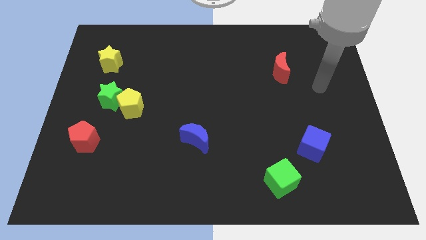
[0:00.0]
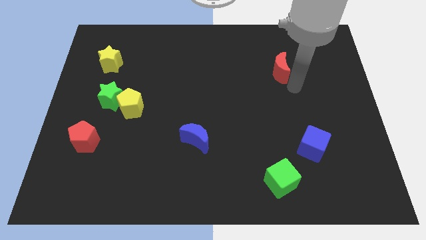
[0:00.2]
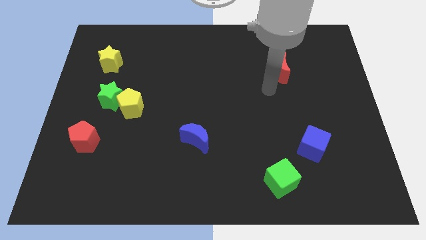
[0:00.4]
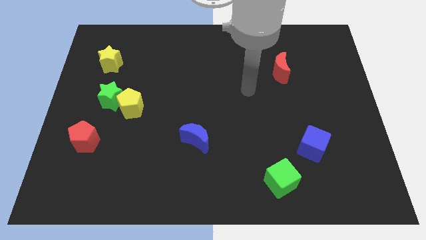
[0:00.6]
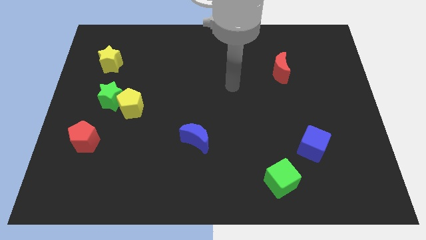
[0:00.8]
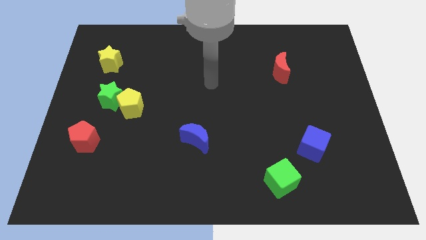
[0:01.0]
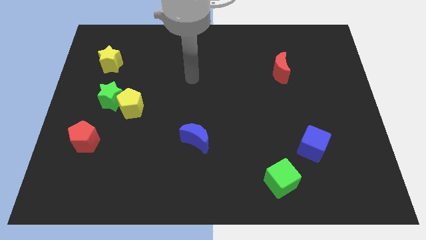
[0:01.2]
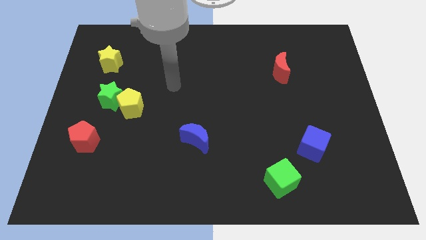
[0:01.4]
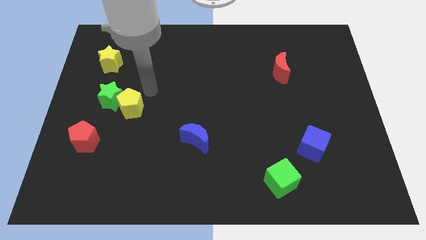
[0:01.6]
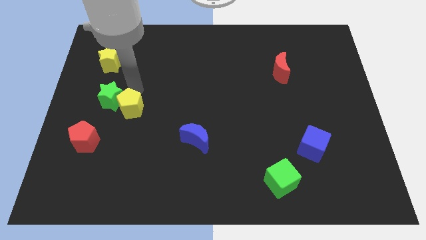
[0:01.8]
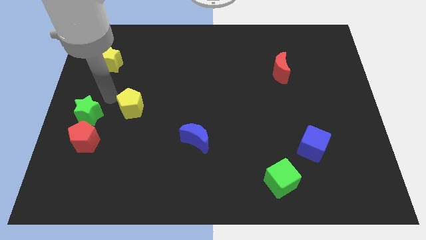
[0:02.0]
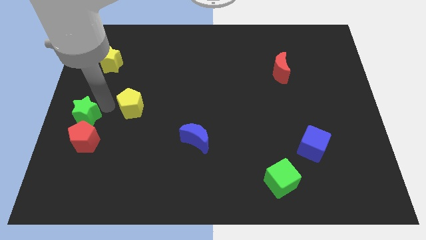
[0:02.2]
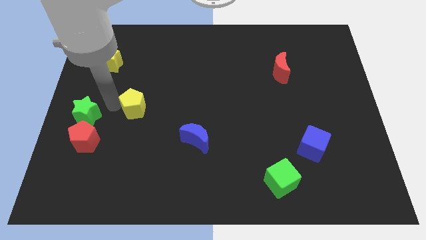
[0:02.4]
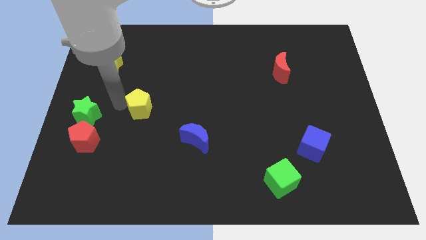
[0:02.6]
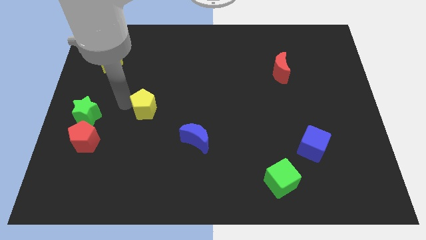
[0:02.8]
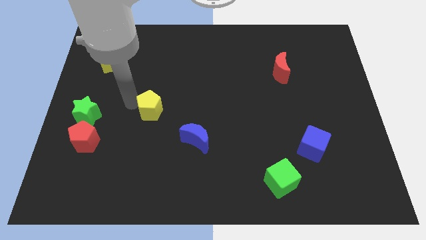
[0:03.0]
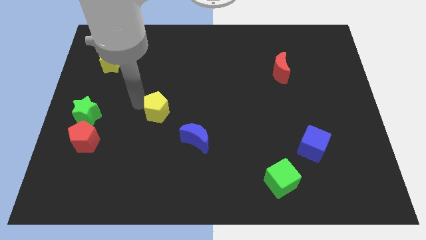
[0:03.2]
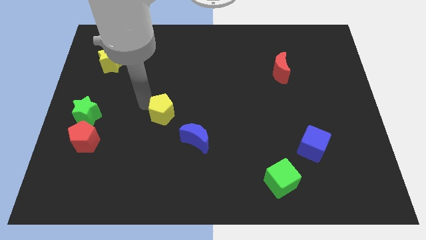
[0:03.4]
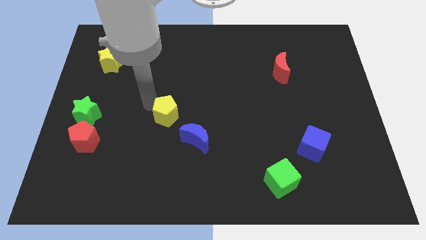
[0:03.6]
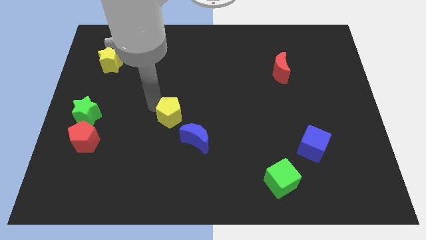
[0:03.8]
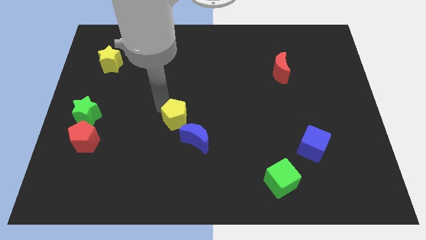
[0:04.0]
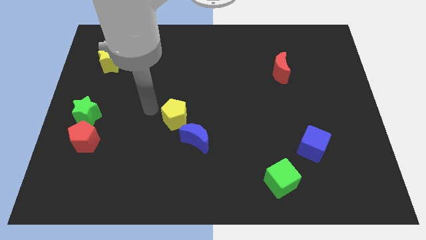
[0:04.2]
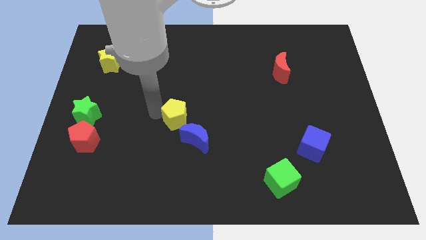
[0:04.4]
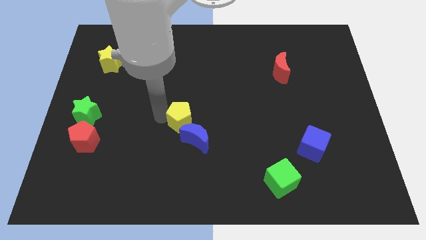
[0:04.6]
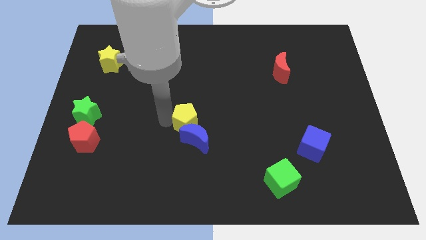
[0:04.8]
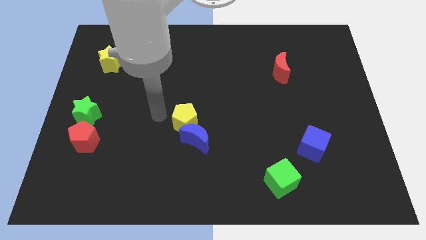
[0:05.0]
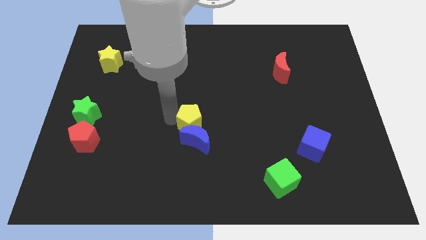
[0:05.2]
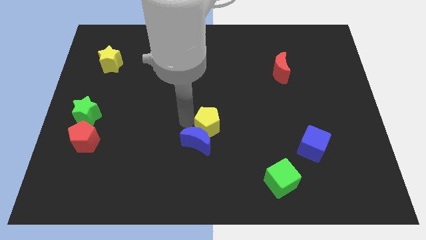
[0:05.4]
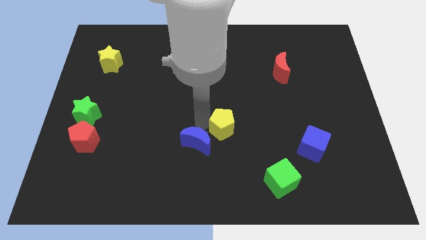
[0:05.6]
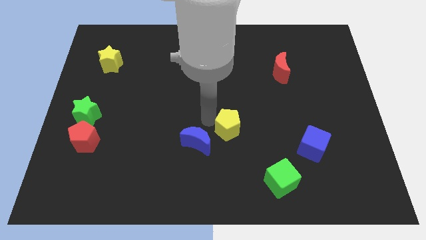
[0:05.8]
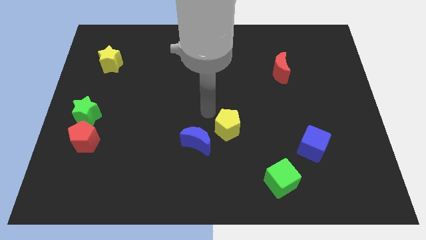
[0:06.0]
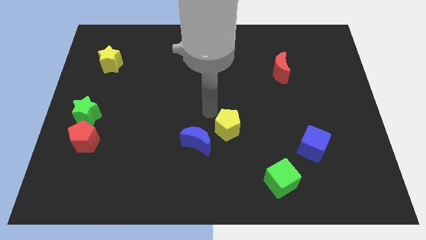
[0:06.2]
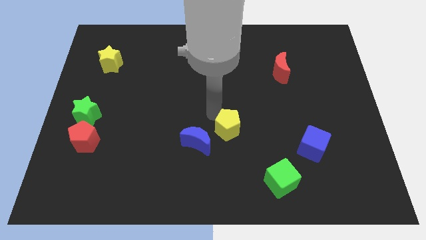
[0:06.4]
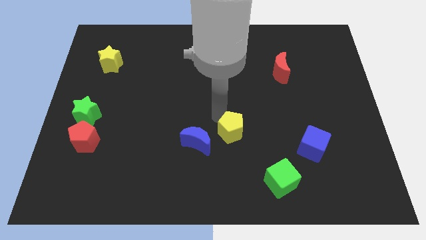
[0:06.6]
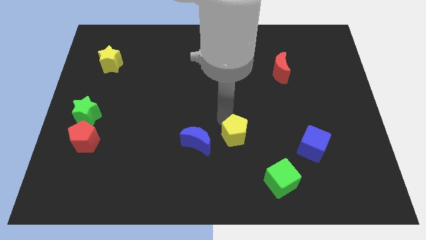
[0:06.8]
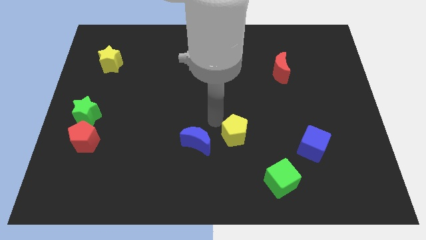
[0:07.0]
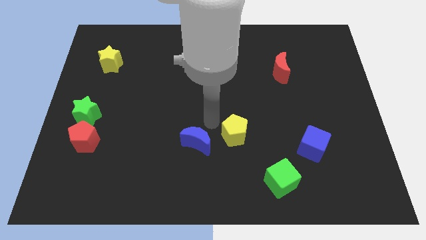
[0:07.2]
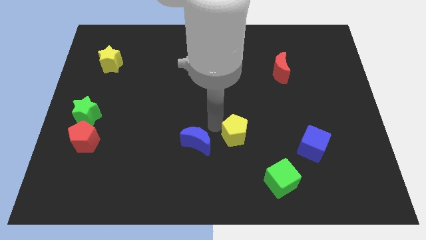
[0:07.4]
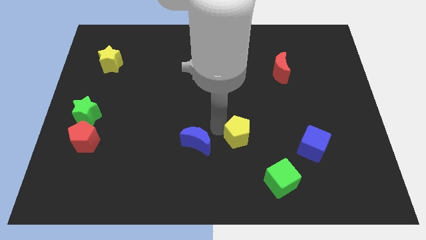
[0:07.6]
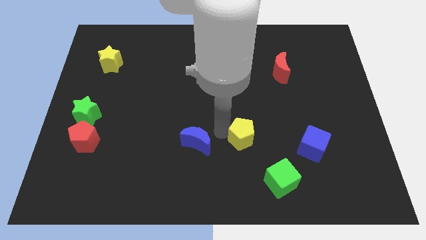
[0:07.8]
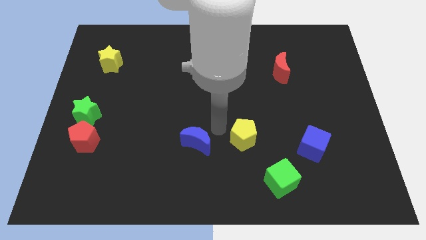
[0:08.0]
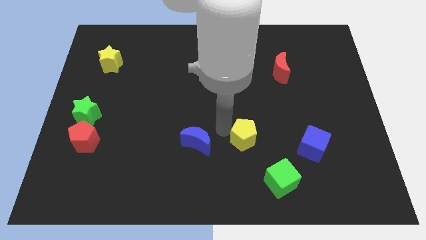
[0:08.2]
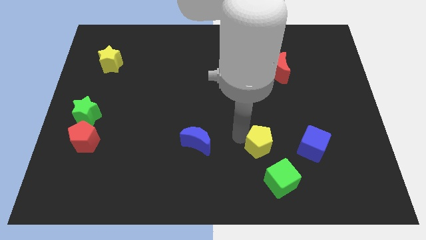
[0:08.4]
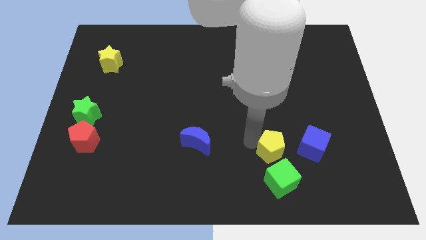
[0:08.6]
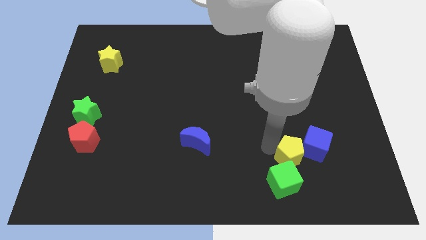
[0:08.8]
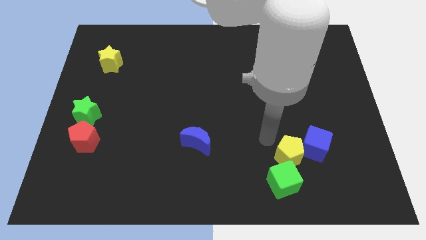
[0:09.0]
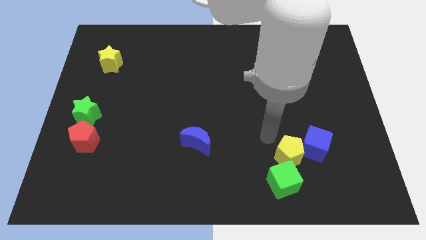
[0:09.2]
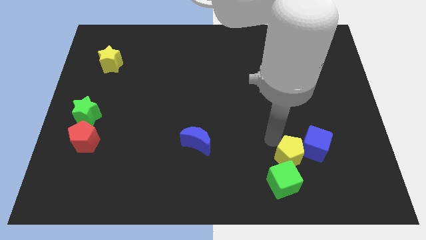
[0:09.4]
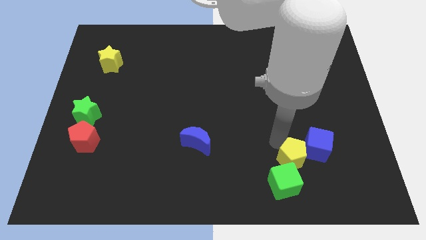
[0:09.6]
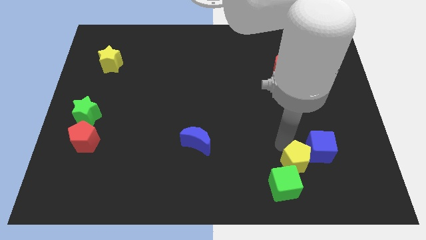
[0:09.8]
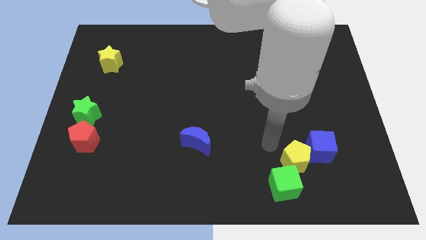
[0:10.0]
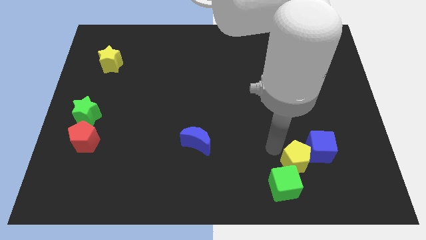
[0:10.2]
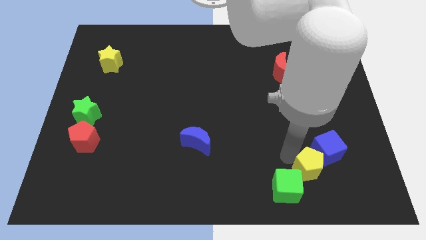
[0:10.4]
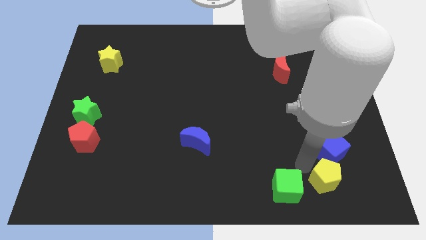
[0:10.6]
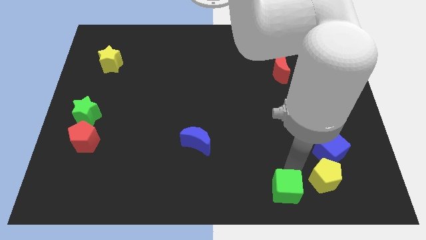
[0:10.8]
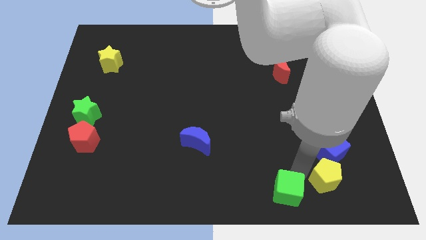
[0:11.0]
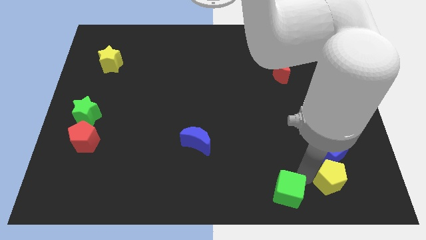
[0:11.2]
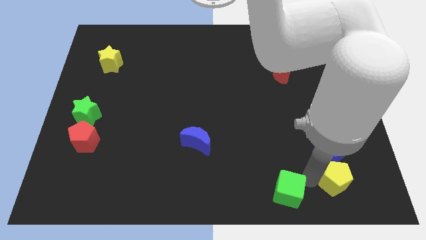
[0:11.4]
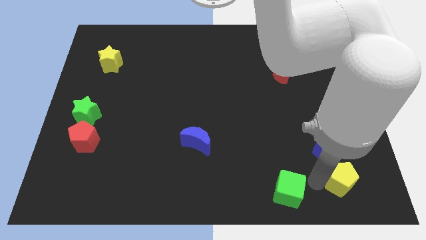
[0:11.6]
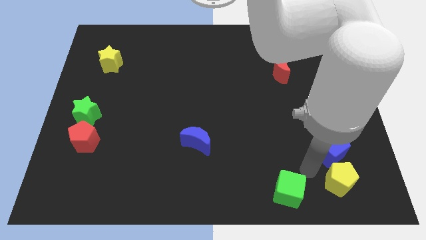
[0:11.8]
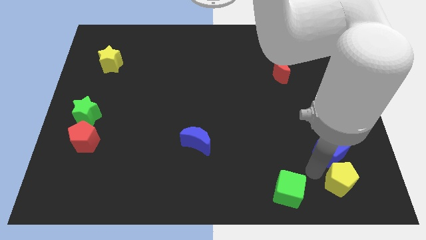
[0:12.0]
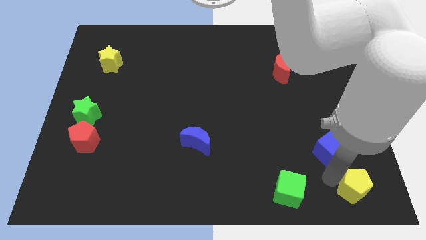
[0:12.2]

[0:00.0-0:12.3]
push the yellow pentagon to the bottom right corner

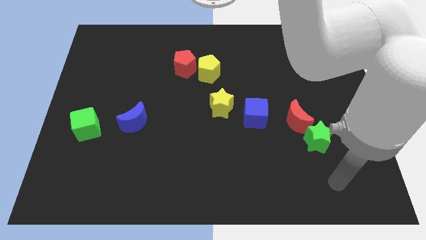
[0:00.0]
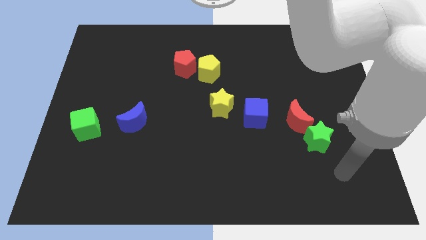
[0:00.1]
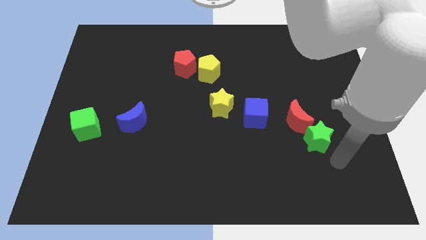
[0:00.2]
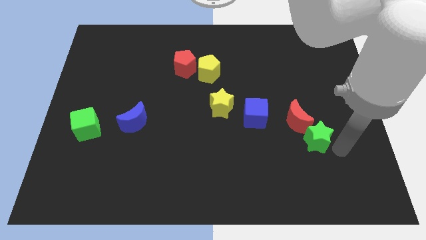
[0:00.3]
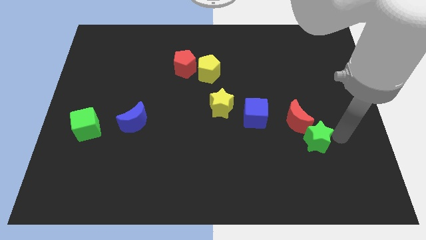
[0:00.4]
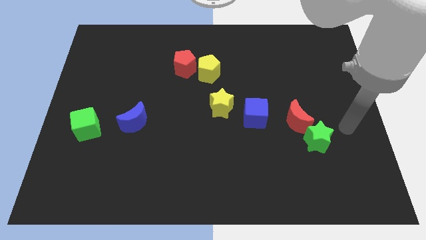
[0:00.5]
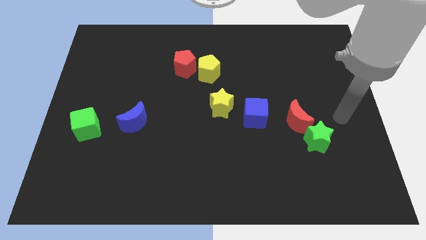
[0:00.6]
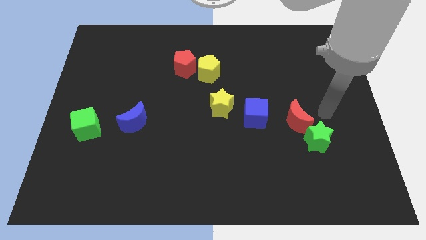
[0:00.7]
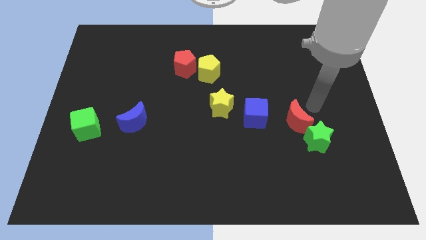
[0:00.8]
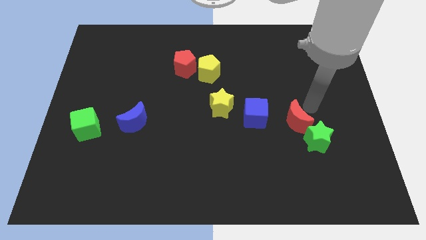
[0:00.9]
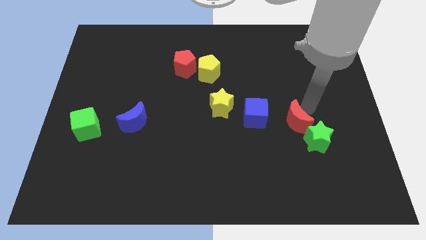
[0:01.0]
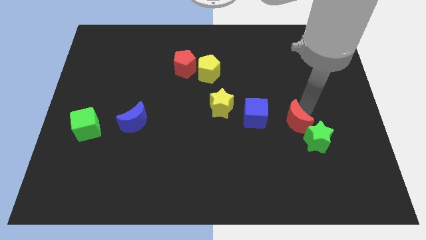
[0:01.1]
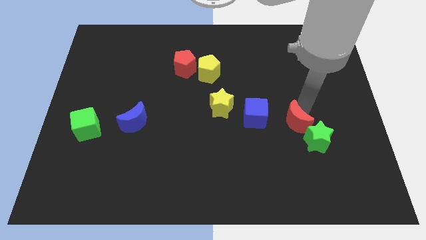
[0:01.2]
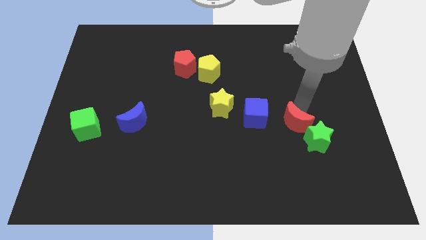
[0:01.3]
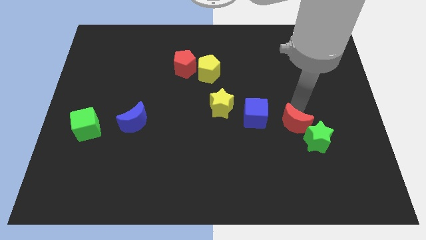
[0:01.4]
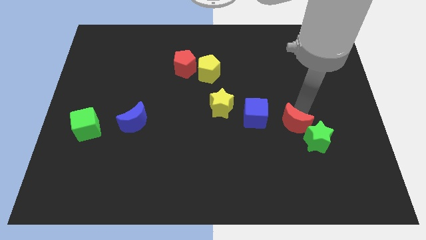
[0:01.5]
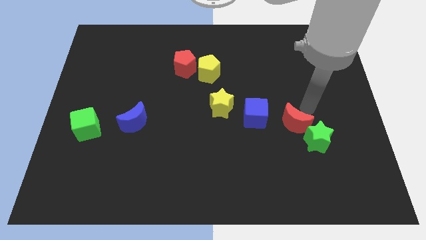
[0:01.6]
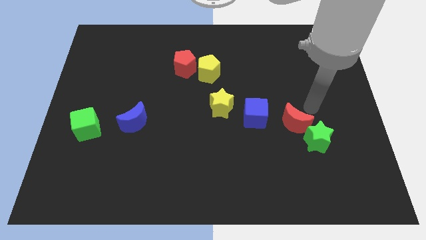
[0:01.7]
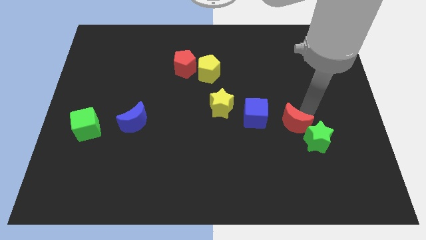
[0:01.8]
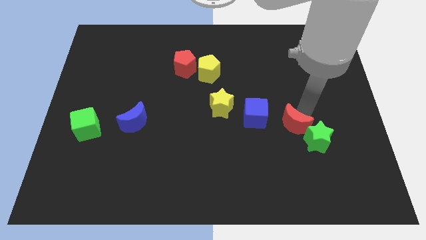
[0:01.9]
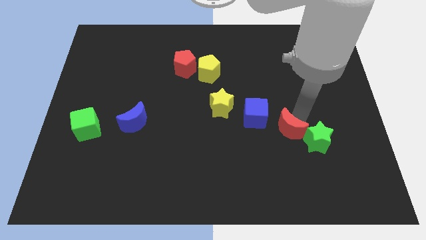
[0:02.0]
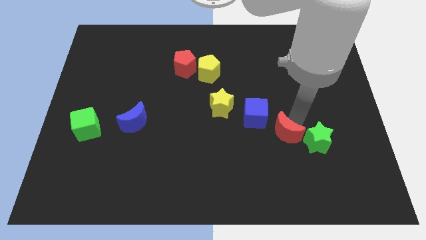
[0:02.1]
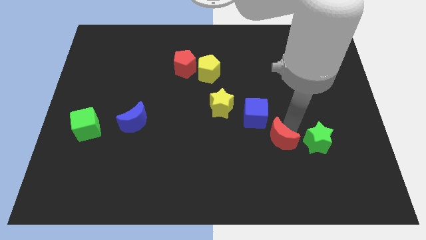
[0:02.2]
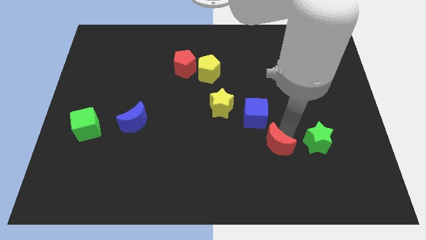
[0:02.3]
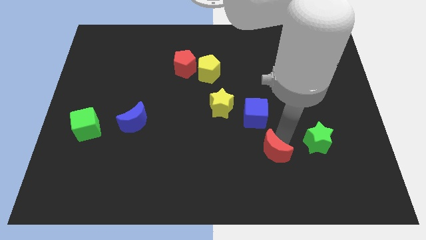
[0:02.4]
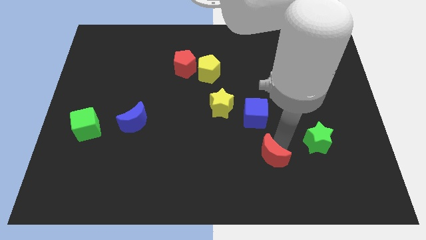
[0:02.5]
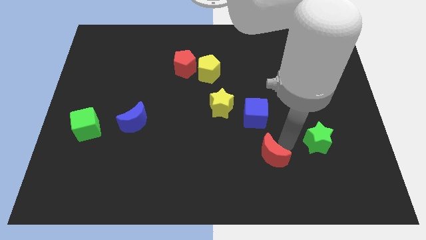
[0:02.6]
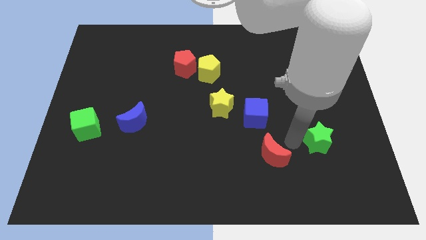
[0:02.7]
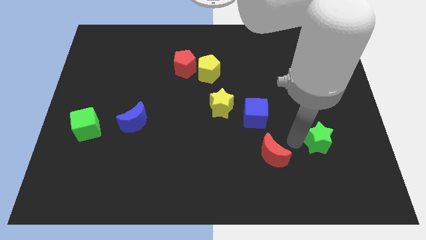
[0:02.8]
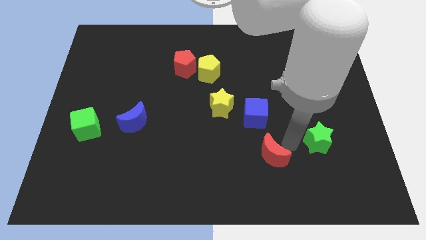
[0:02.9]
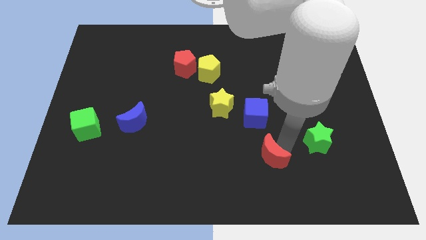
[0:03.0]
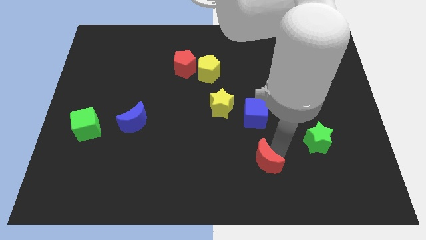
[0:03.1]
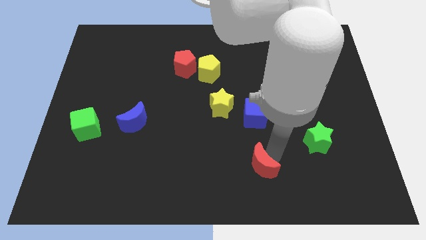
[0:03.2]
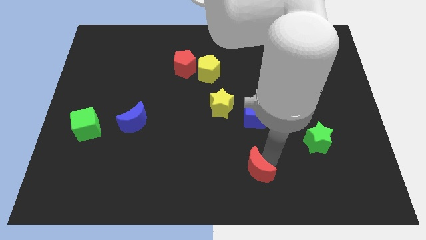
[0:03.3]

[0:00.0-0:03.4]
put the red moon to the bottom
